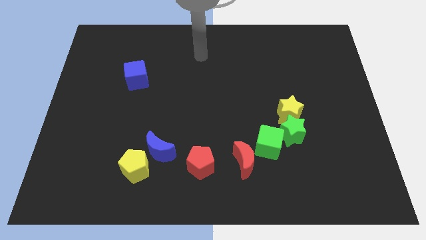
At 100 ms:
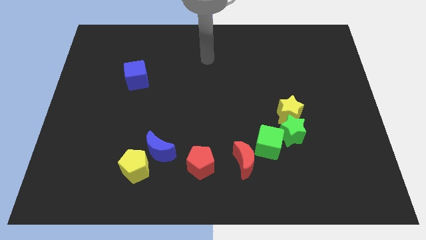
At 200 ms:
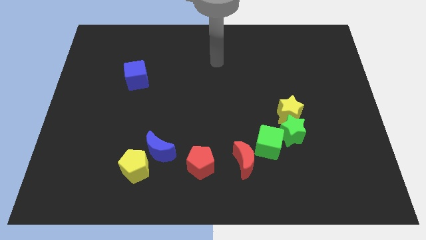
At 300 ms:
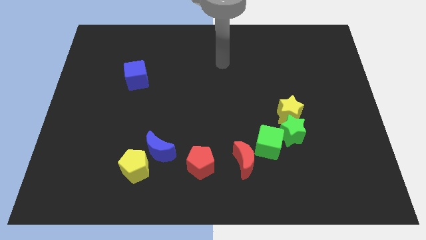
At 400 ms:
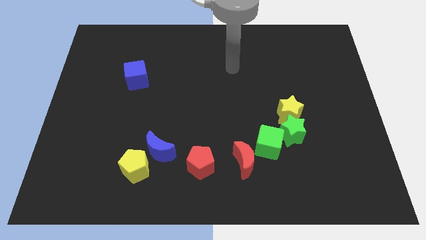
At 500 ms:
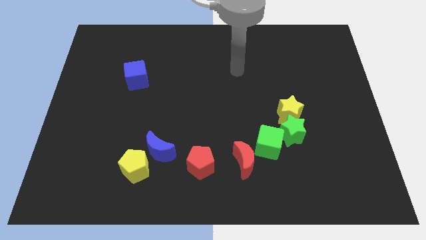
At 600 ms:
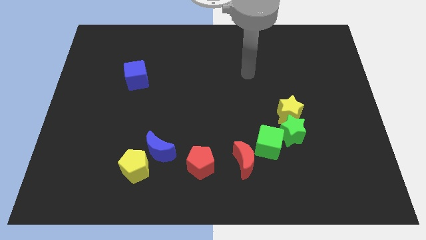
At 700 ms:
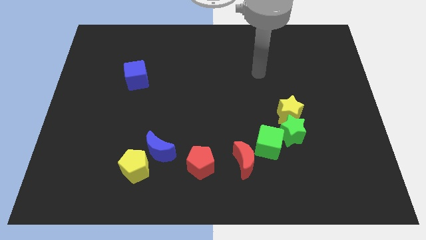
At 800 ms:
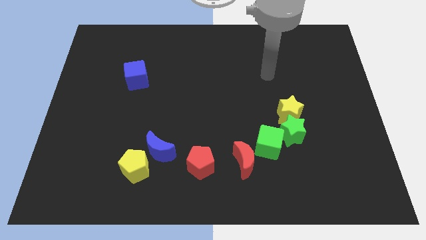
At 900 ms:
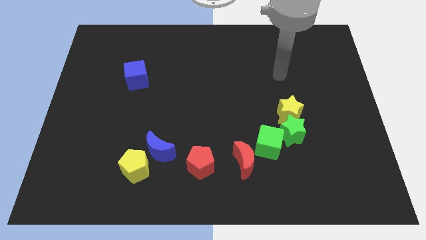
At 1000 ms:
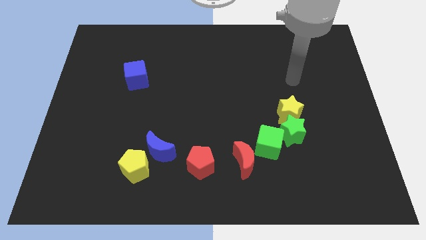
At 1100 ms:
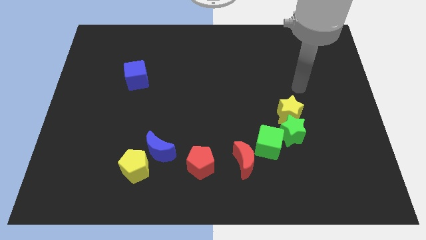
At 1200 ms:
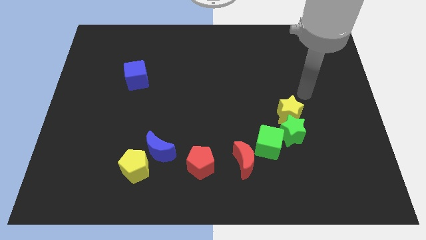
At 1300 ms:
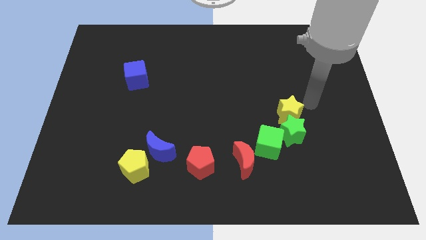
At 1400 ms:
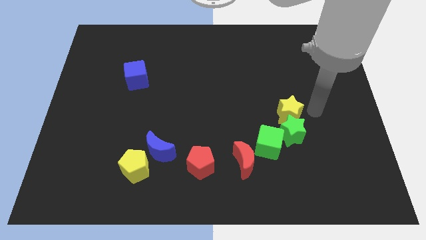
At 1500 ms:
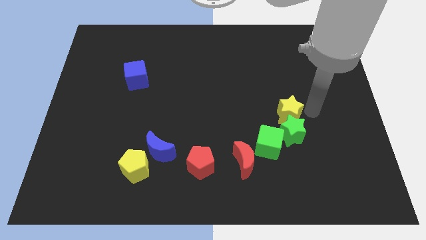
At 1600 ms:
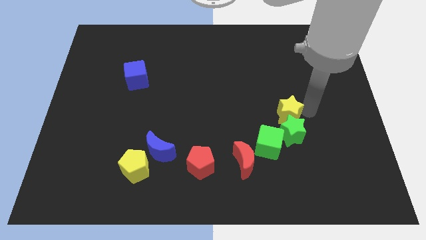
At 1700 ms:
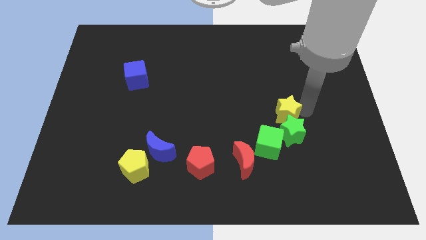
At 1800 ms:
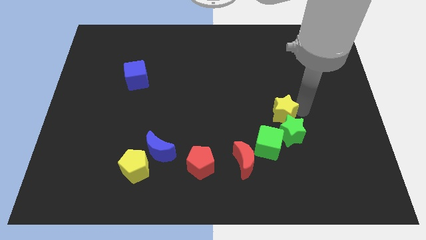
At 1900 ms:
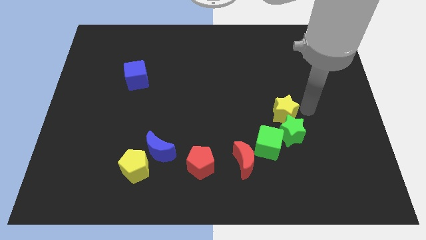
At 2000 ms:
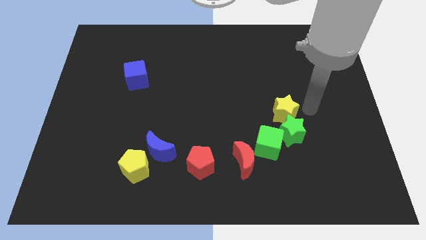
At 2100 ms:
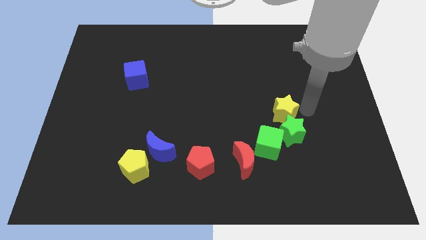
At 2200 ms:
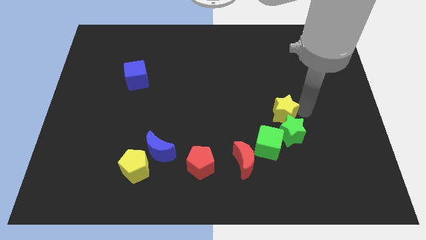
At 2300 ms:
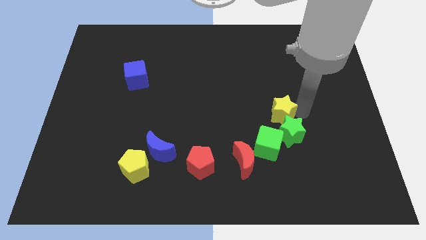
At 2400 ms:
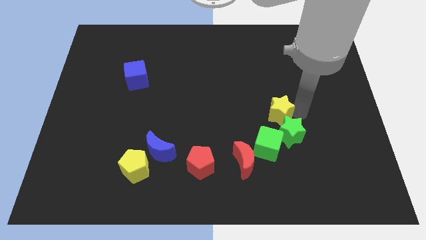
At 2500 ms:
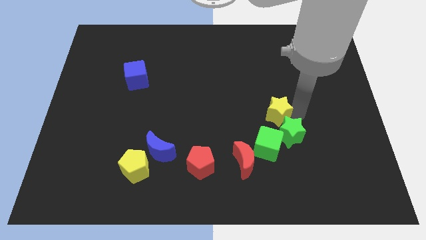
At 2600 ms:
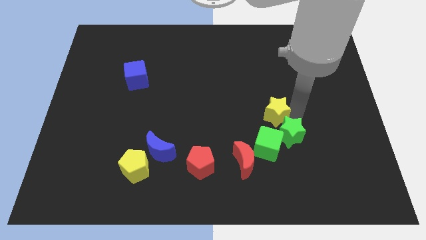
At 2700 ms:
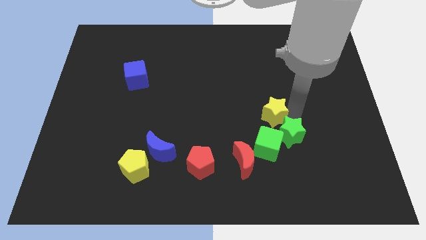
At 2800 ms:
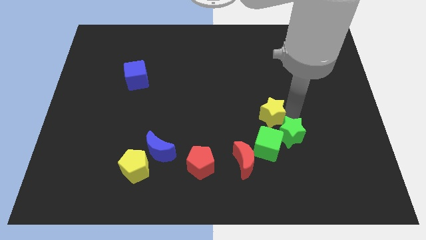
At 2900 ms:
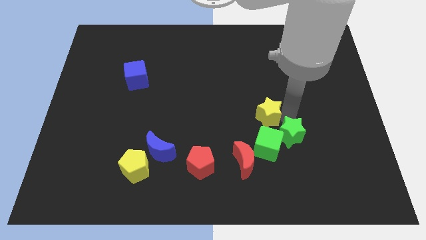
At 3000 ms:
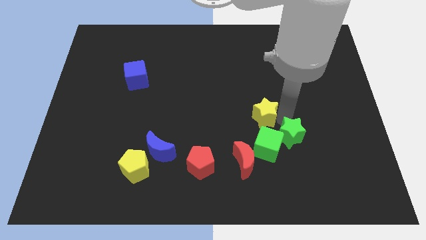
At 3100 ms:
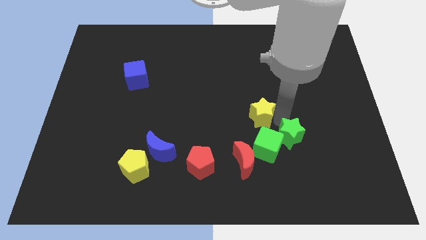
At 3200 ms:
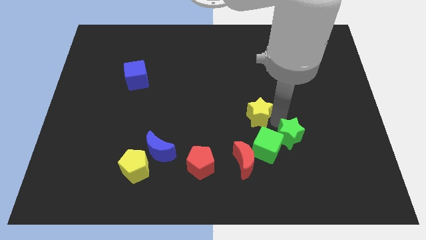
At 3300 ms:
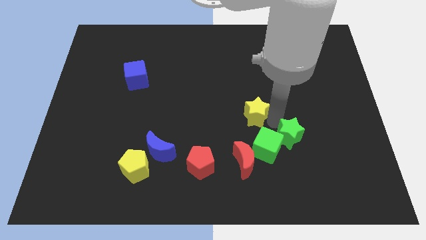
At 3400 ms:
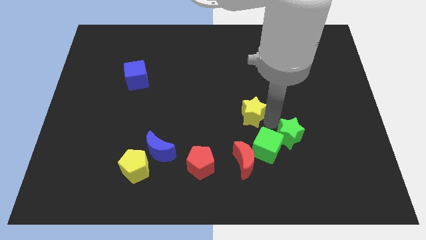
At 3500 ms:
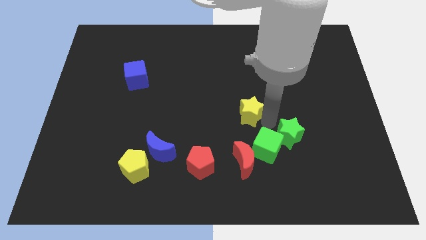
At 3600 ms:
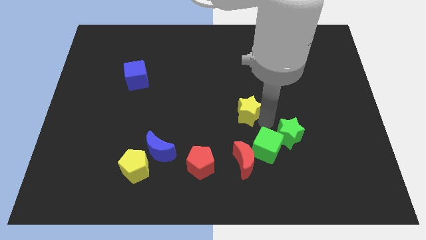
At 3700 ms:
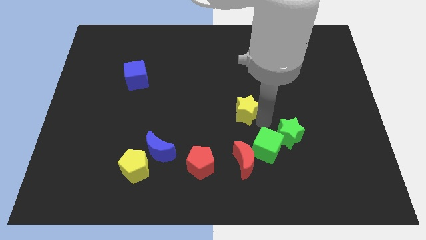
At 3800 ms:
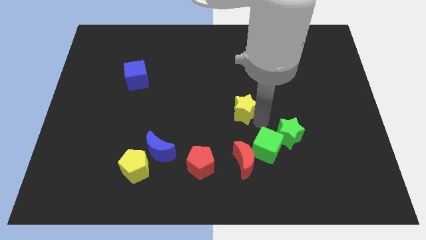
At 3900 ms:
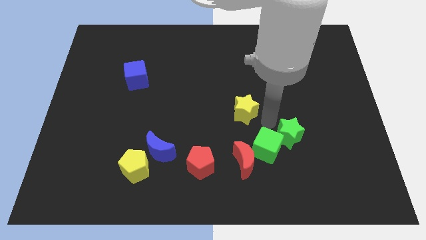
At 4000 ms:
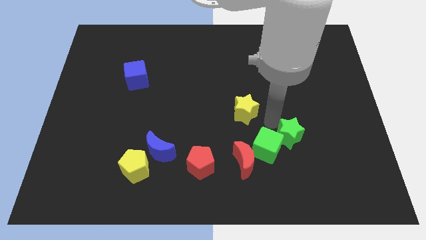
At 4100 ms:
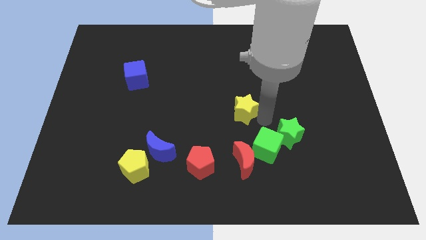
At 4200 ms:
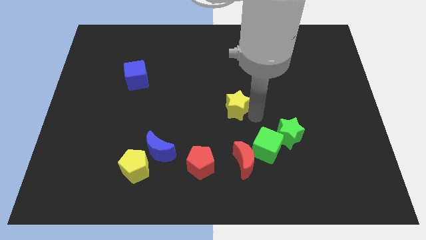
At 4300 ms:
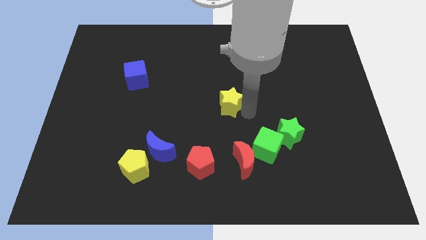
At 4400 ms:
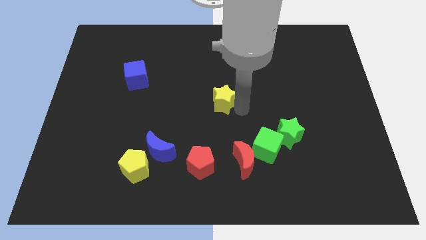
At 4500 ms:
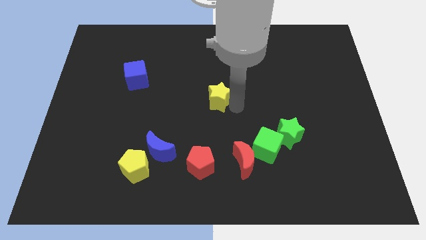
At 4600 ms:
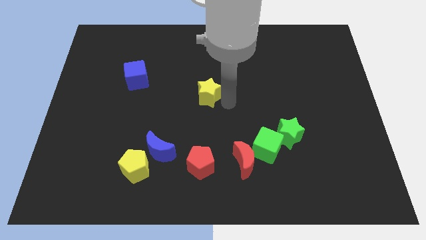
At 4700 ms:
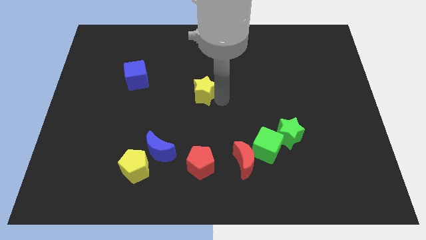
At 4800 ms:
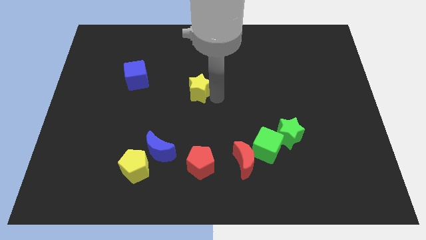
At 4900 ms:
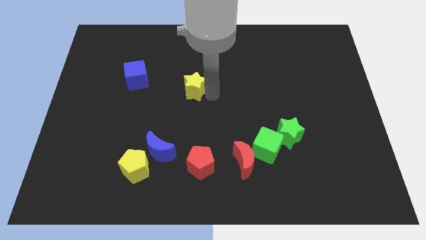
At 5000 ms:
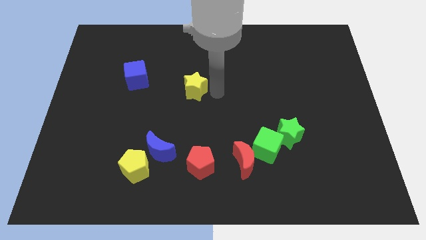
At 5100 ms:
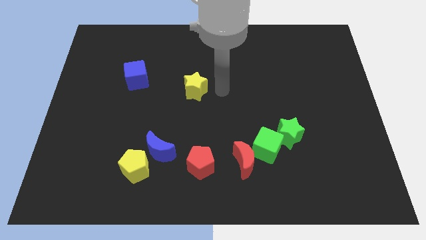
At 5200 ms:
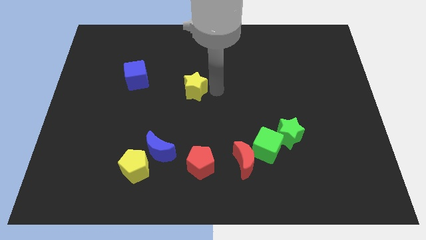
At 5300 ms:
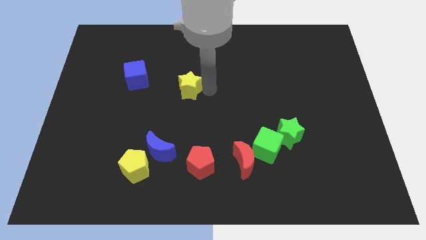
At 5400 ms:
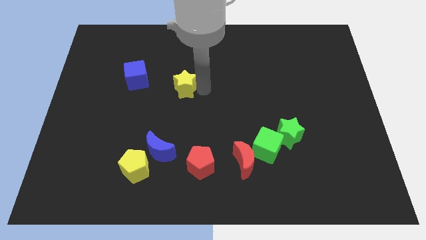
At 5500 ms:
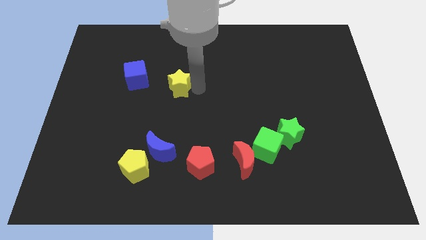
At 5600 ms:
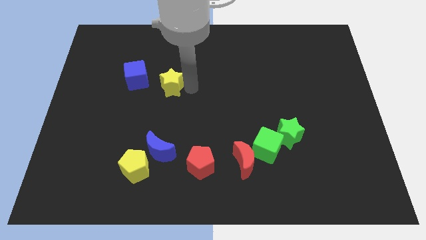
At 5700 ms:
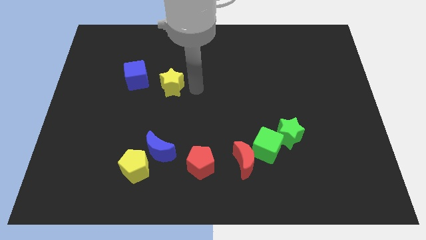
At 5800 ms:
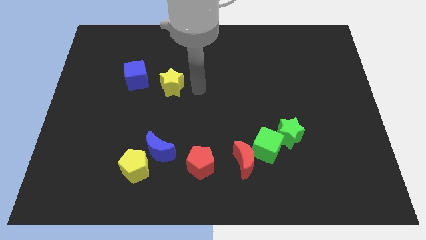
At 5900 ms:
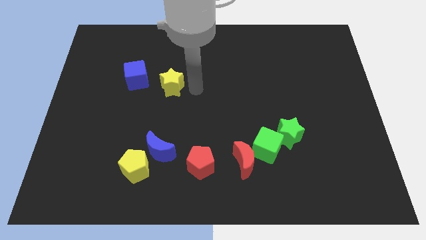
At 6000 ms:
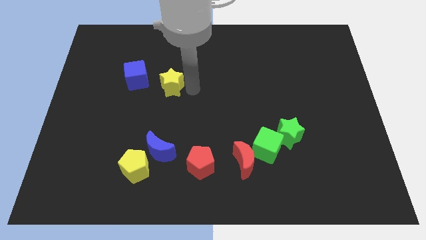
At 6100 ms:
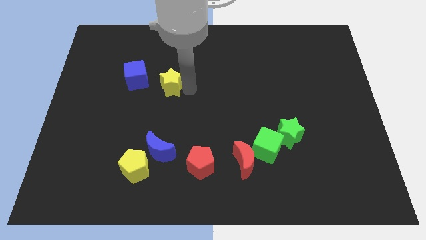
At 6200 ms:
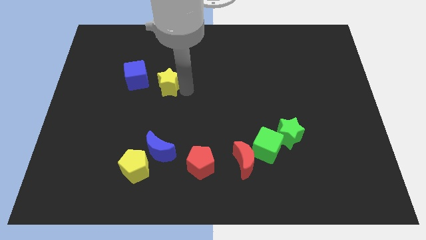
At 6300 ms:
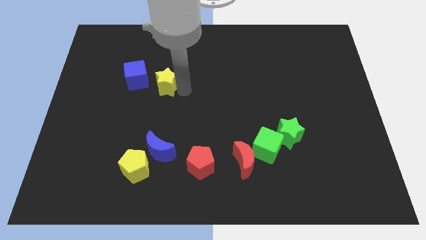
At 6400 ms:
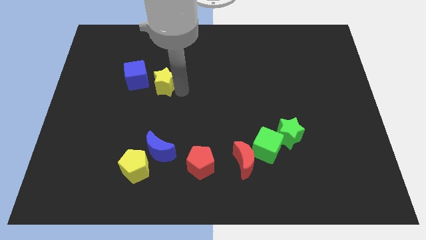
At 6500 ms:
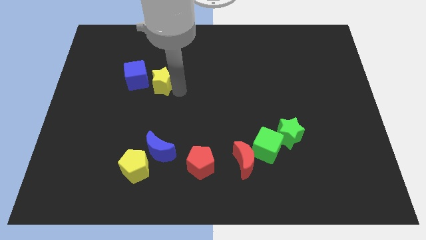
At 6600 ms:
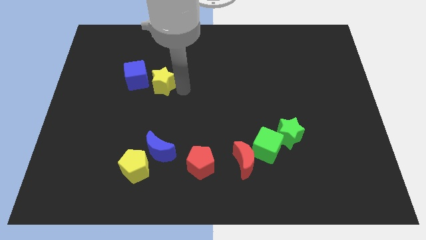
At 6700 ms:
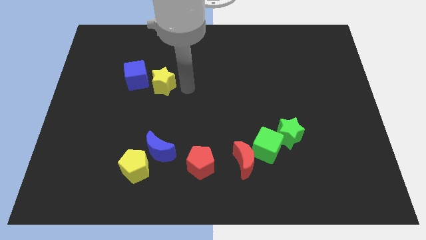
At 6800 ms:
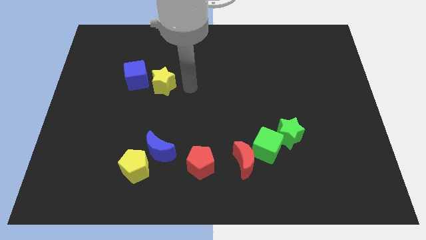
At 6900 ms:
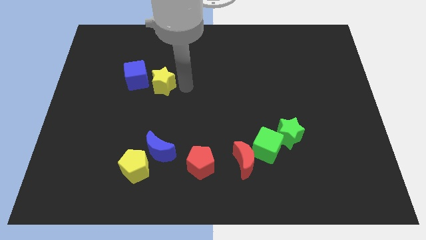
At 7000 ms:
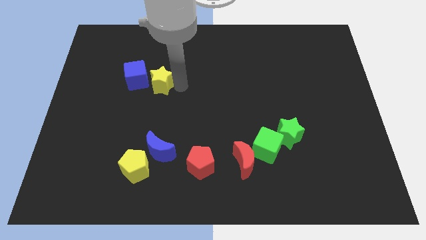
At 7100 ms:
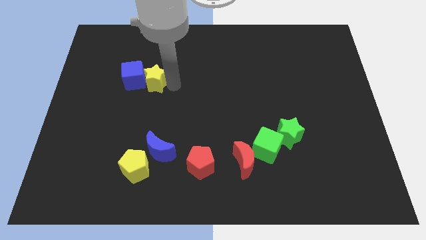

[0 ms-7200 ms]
move the yellow star close to the blue cube

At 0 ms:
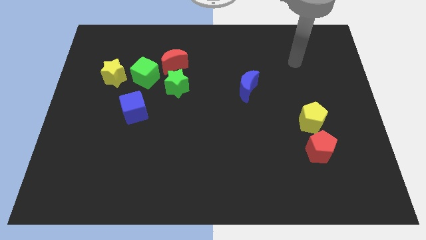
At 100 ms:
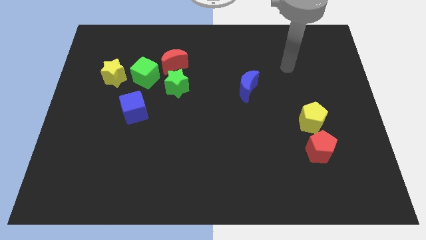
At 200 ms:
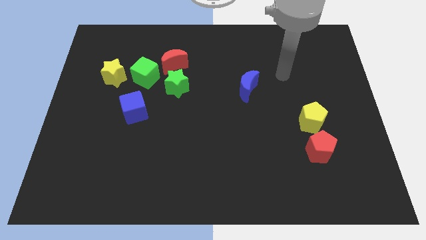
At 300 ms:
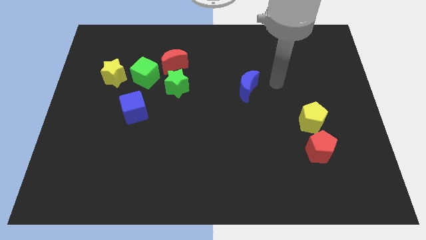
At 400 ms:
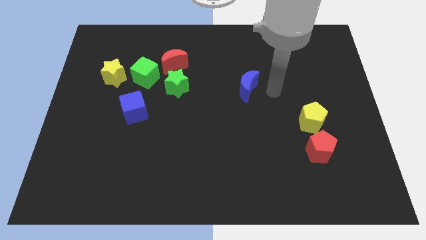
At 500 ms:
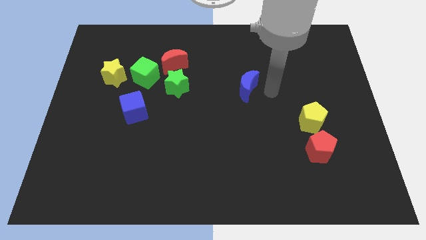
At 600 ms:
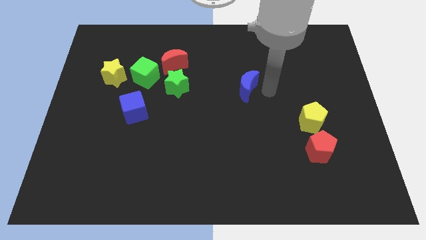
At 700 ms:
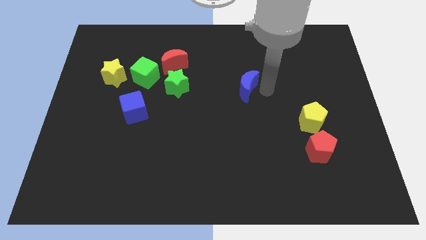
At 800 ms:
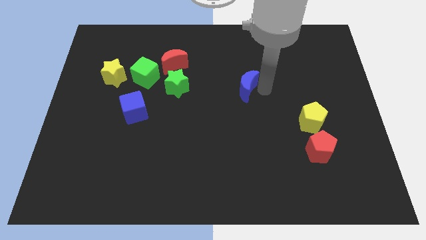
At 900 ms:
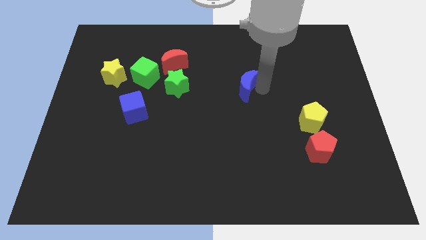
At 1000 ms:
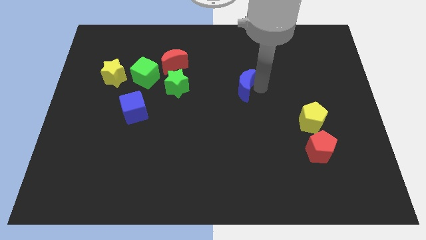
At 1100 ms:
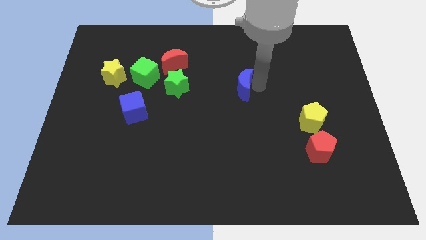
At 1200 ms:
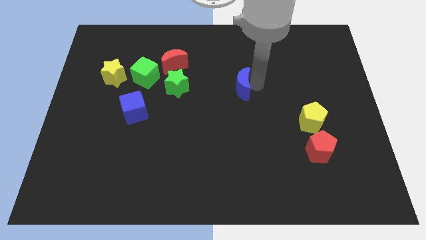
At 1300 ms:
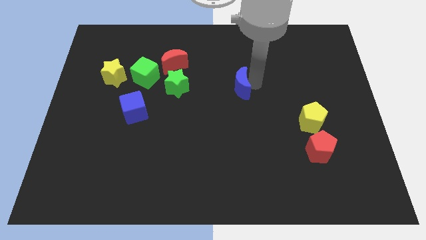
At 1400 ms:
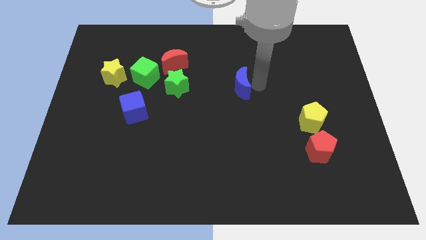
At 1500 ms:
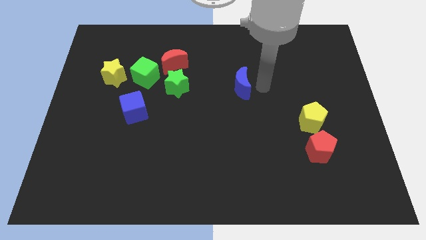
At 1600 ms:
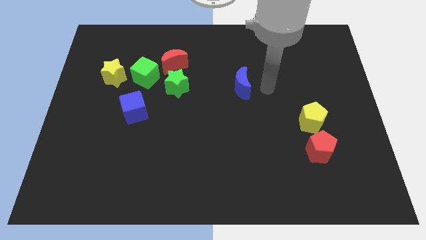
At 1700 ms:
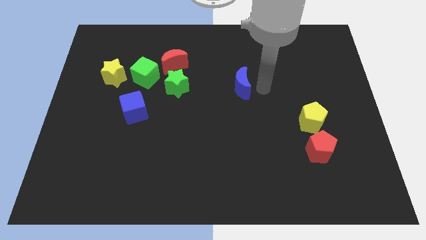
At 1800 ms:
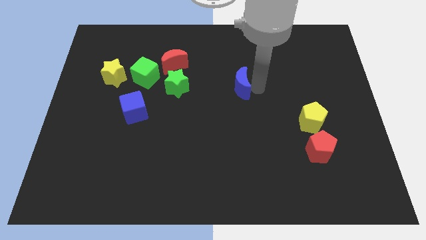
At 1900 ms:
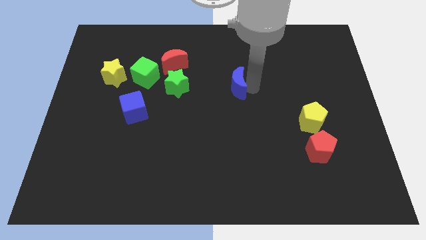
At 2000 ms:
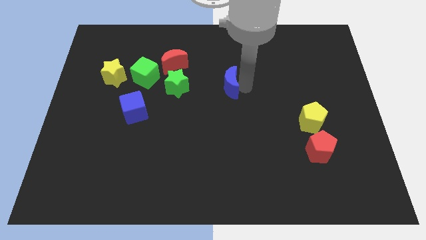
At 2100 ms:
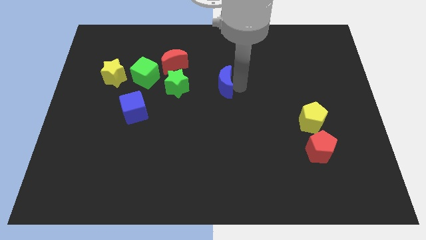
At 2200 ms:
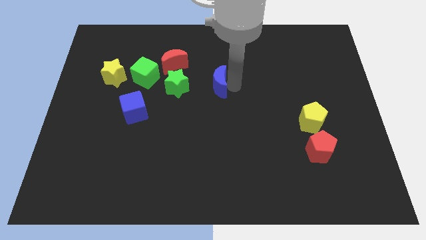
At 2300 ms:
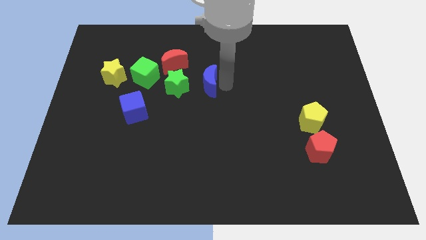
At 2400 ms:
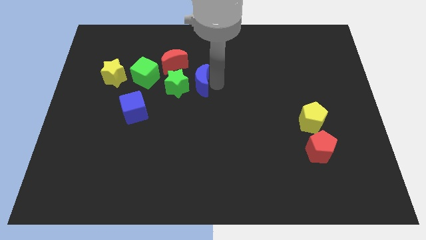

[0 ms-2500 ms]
push the blue moon towards the green star
